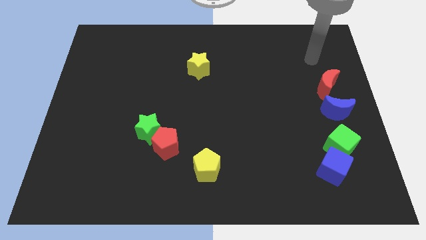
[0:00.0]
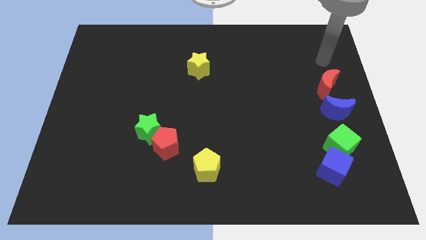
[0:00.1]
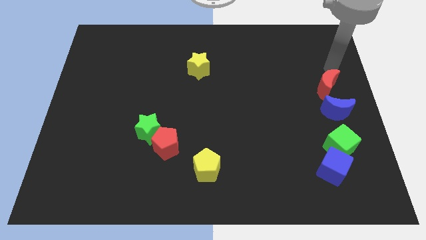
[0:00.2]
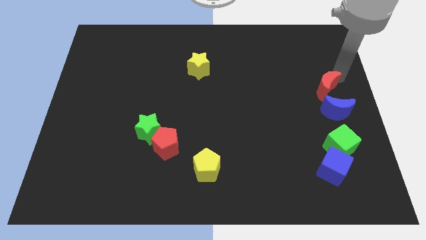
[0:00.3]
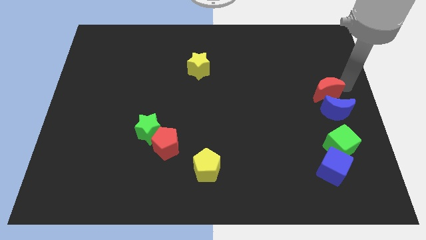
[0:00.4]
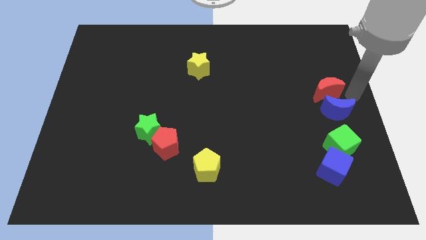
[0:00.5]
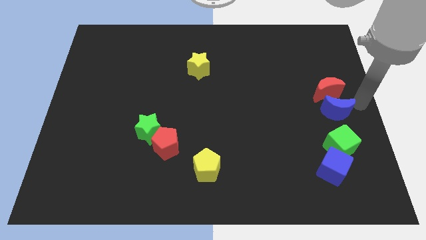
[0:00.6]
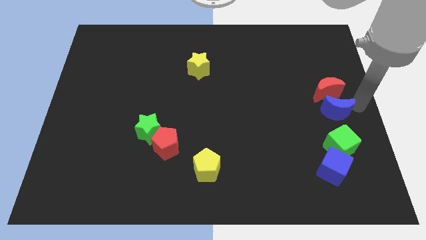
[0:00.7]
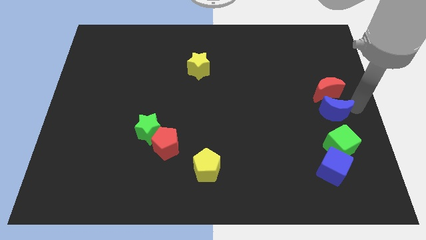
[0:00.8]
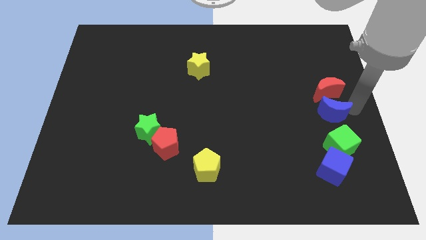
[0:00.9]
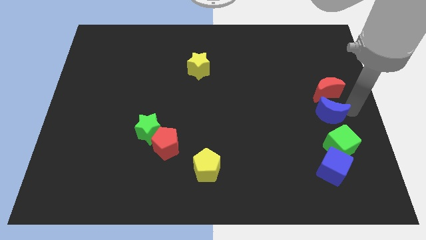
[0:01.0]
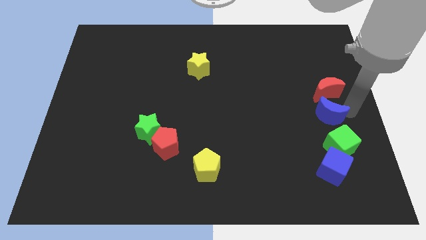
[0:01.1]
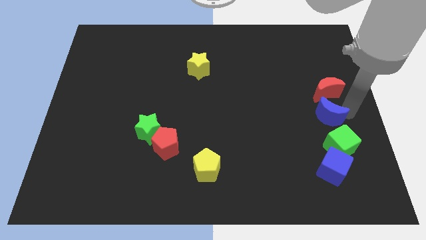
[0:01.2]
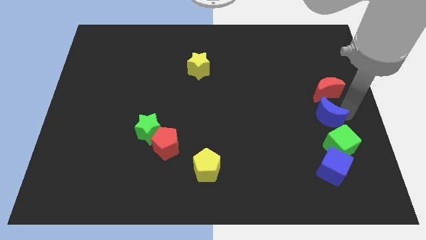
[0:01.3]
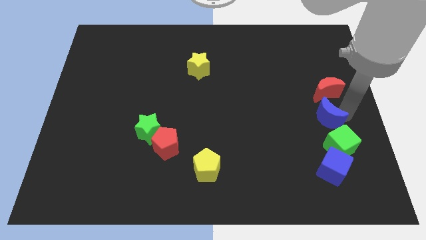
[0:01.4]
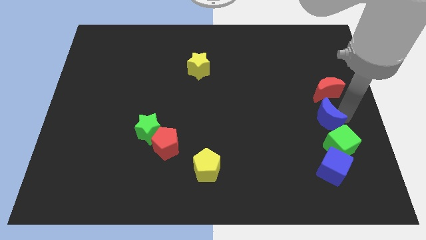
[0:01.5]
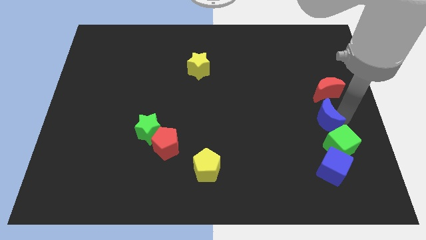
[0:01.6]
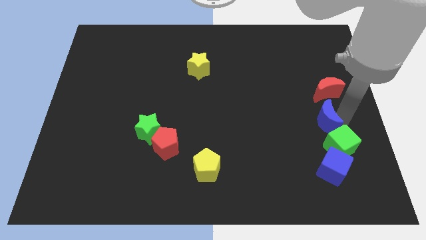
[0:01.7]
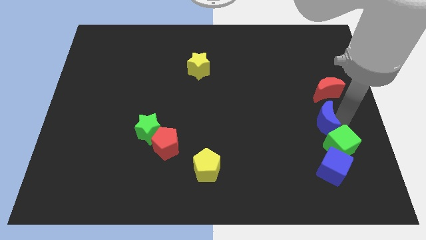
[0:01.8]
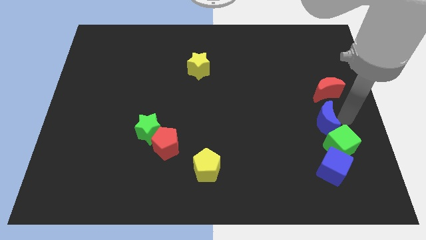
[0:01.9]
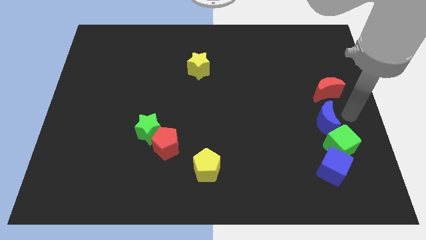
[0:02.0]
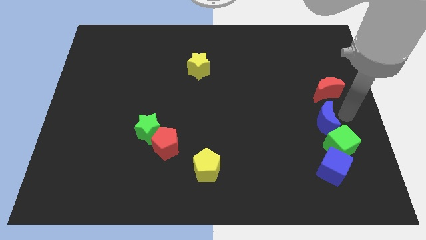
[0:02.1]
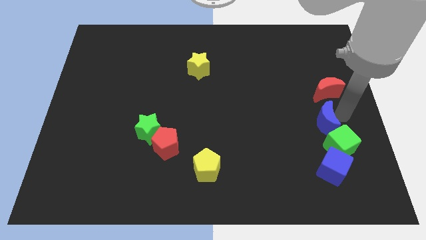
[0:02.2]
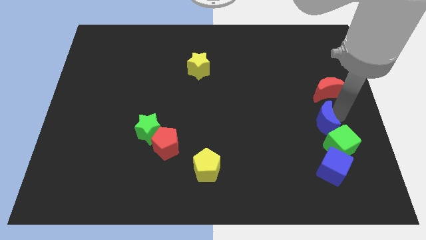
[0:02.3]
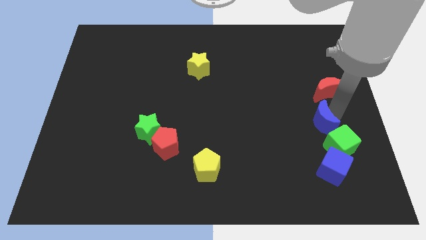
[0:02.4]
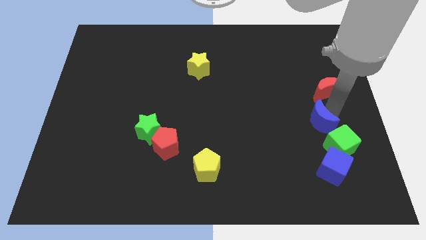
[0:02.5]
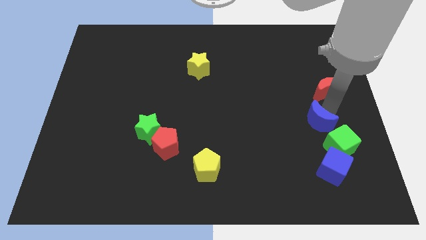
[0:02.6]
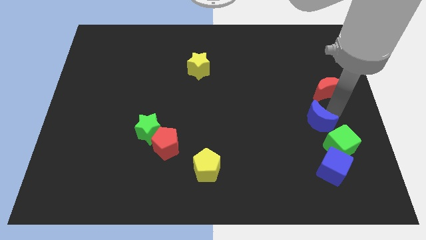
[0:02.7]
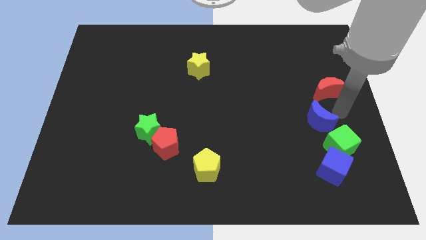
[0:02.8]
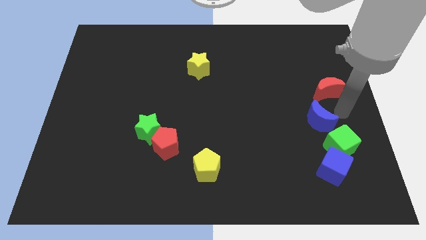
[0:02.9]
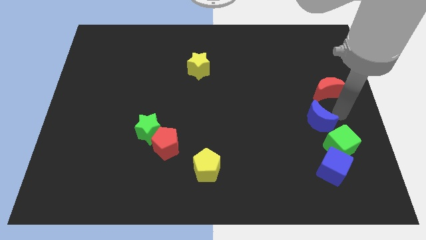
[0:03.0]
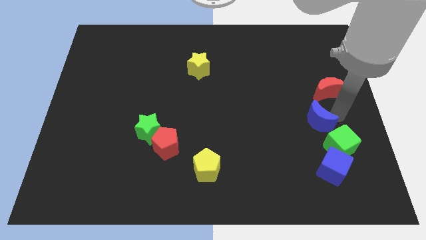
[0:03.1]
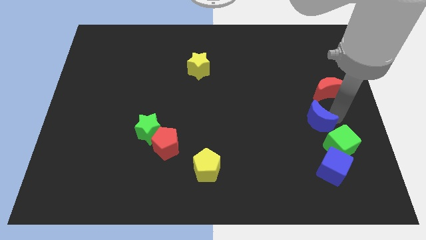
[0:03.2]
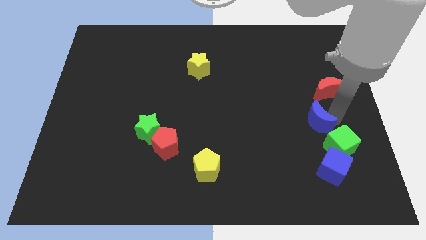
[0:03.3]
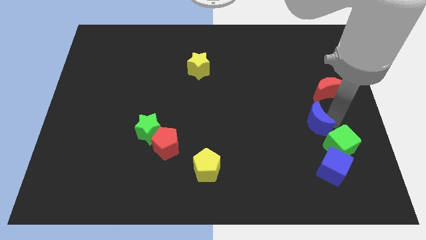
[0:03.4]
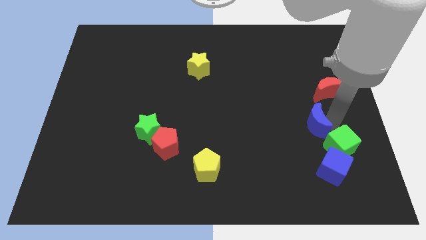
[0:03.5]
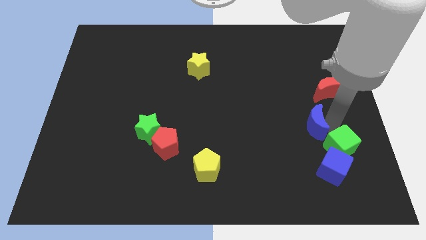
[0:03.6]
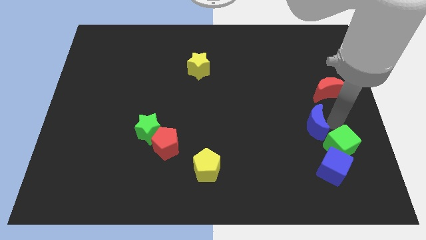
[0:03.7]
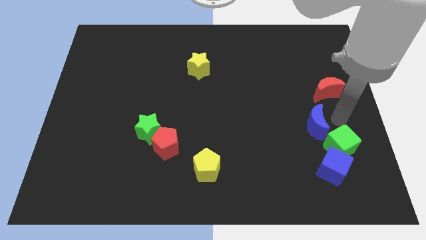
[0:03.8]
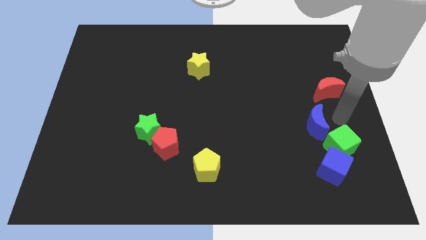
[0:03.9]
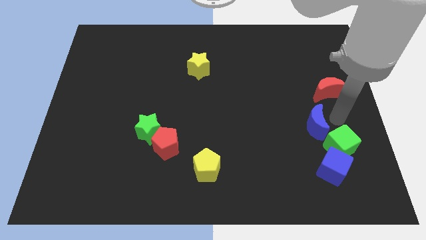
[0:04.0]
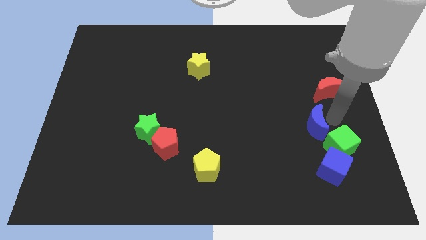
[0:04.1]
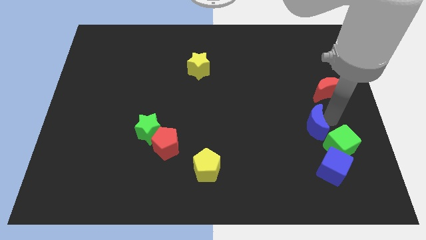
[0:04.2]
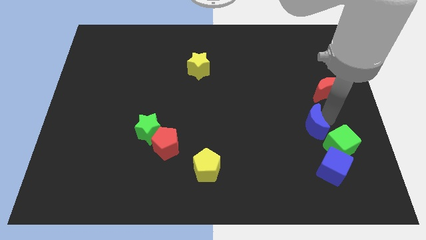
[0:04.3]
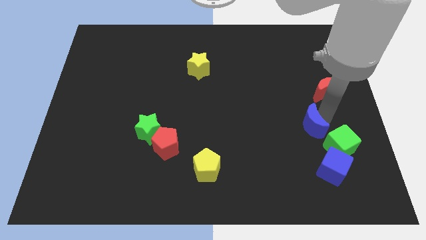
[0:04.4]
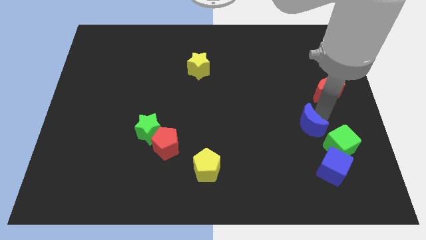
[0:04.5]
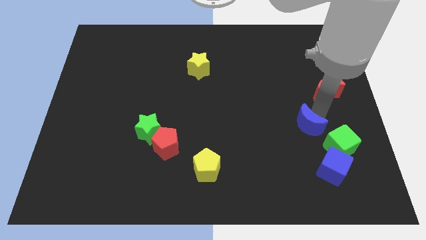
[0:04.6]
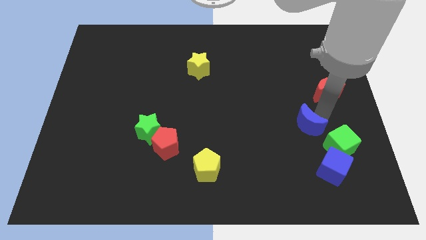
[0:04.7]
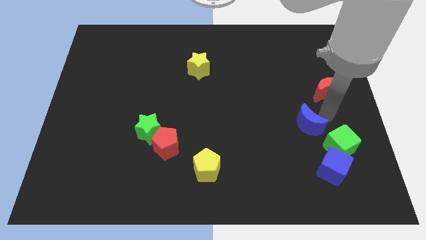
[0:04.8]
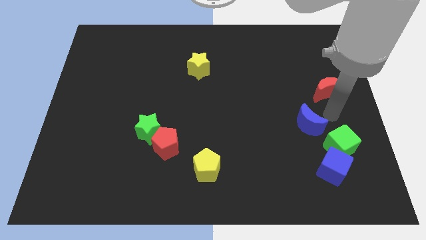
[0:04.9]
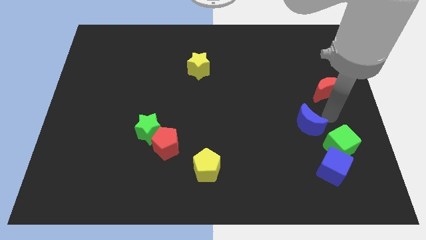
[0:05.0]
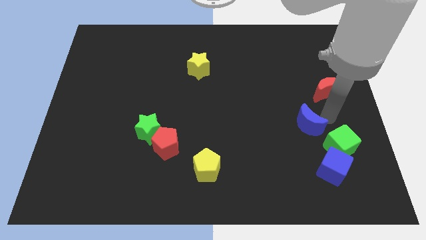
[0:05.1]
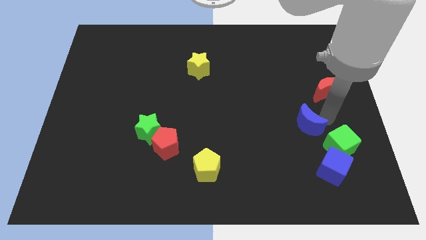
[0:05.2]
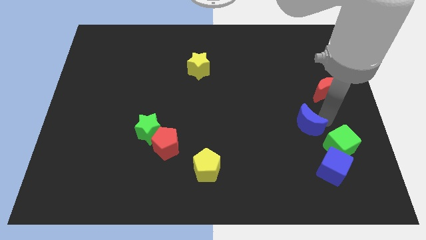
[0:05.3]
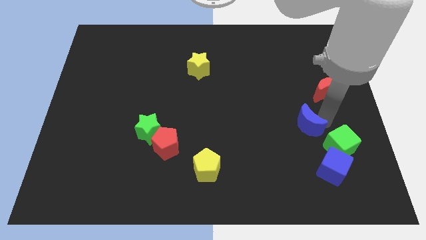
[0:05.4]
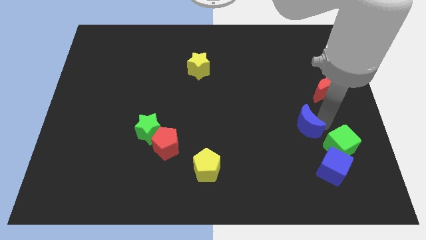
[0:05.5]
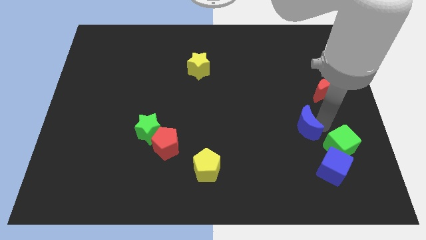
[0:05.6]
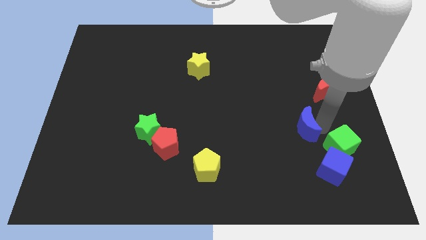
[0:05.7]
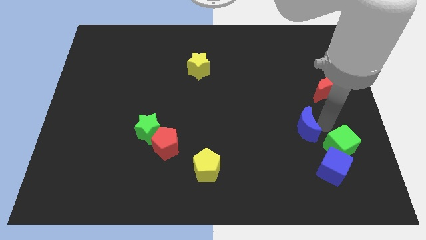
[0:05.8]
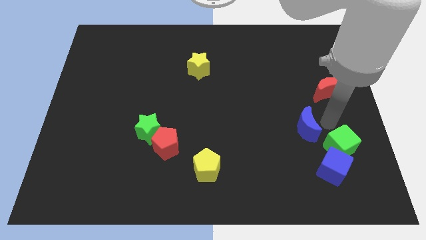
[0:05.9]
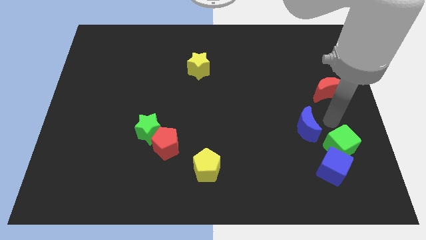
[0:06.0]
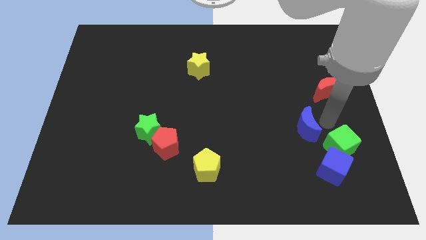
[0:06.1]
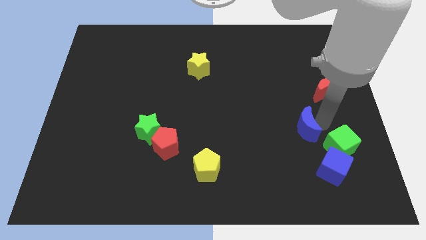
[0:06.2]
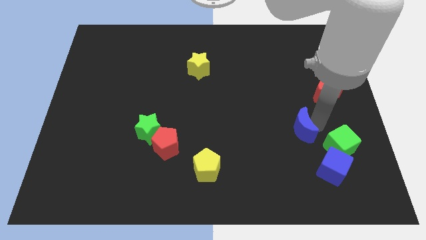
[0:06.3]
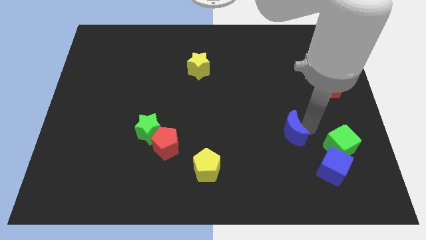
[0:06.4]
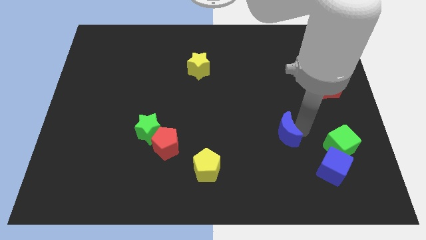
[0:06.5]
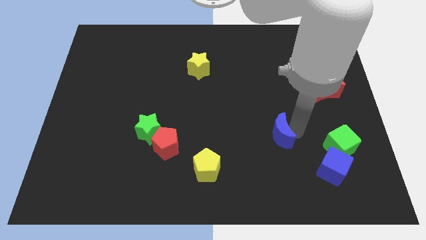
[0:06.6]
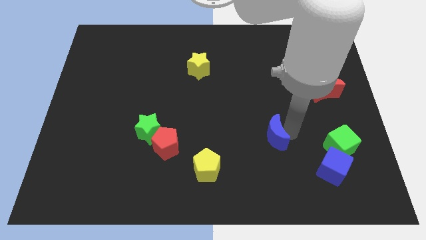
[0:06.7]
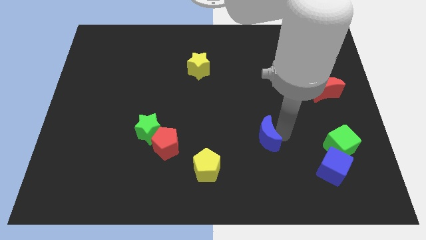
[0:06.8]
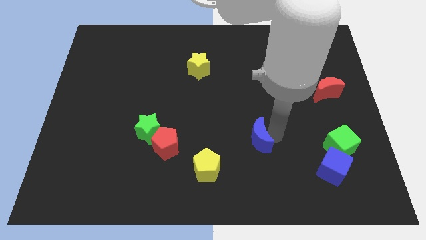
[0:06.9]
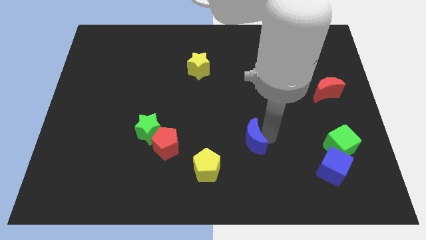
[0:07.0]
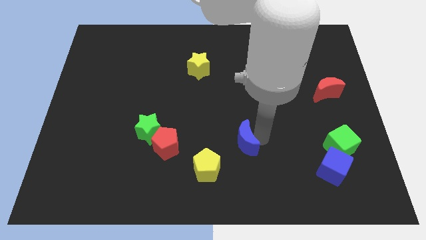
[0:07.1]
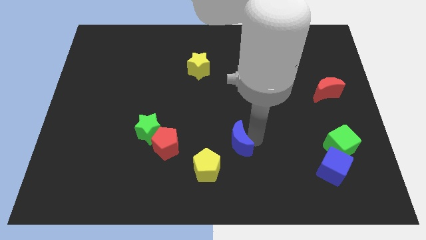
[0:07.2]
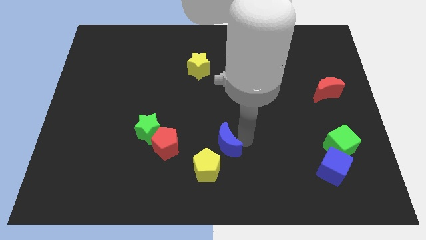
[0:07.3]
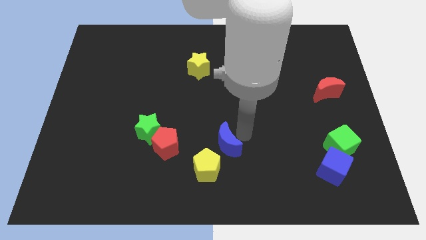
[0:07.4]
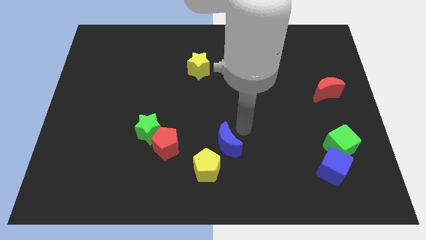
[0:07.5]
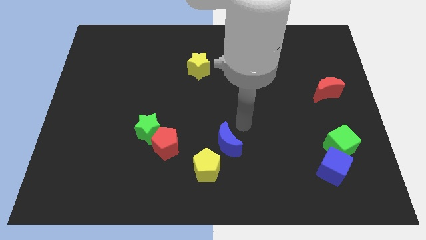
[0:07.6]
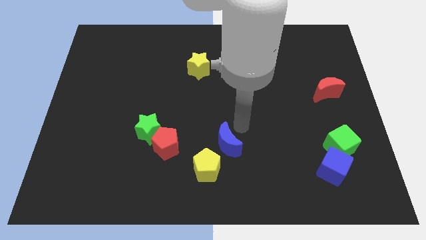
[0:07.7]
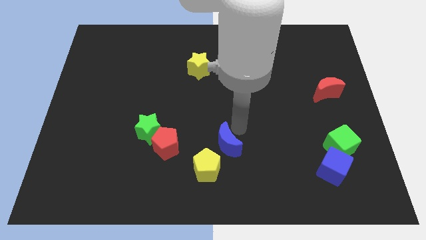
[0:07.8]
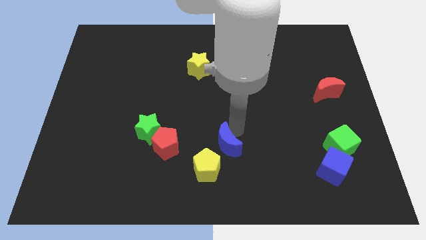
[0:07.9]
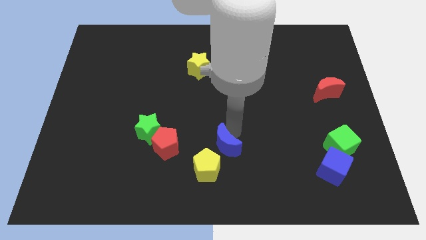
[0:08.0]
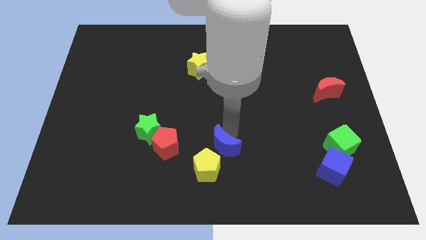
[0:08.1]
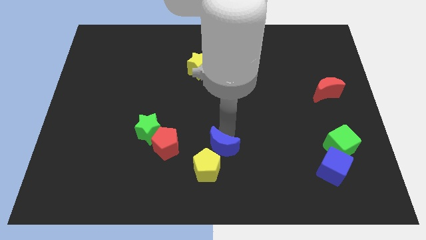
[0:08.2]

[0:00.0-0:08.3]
push the blue moon next to the yellow pentagon
